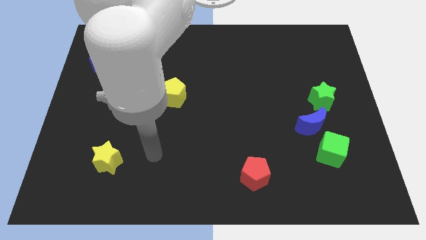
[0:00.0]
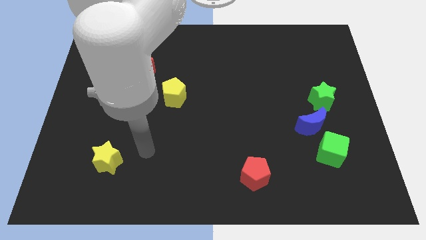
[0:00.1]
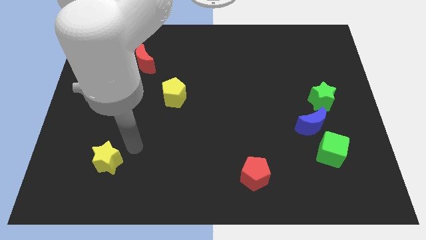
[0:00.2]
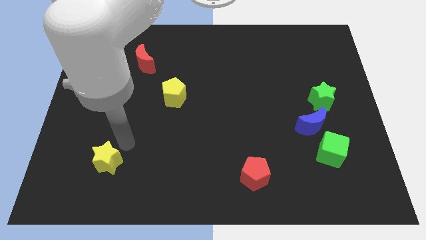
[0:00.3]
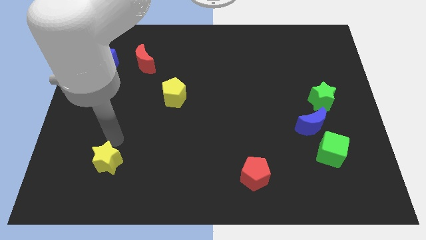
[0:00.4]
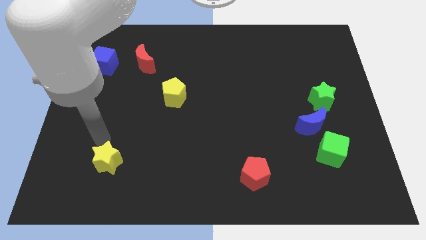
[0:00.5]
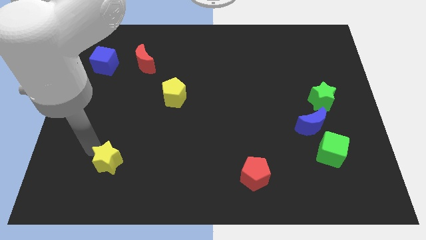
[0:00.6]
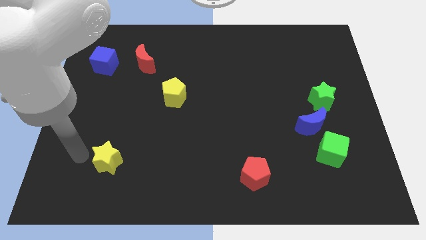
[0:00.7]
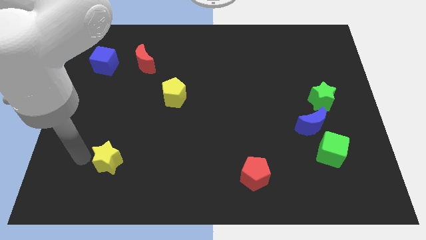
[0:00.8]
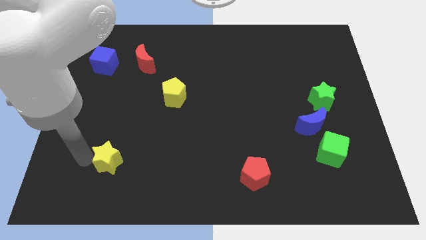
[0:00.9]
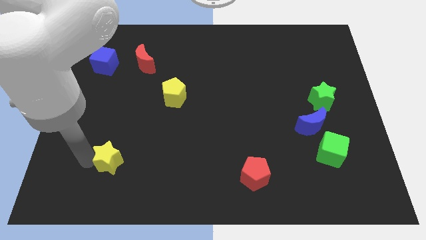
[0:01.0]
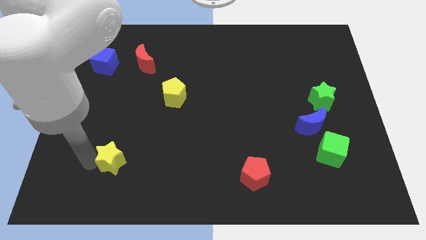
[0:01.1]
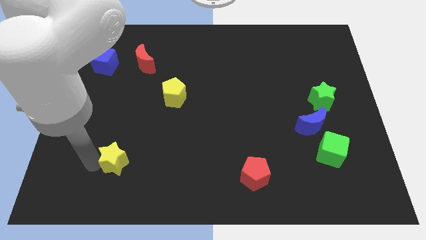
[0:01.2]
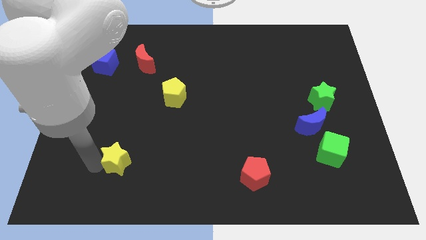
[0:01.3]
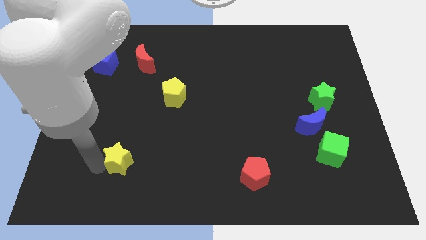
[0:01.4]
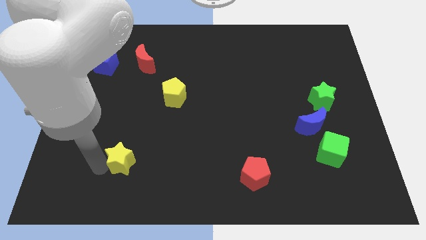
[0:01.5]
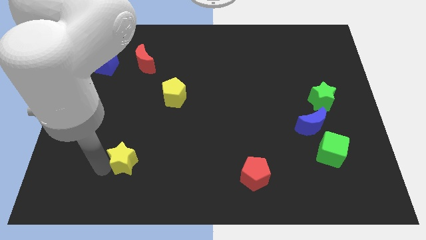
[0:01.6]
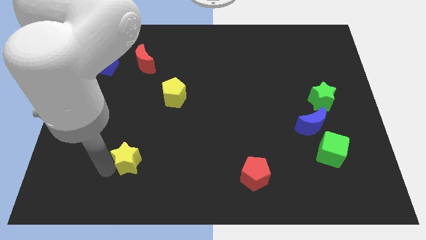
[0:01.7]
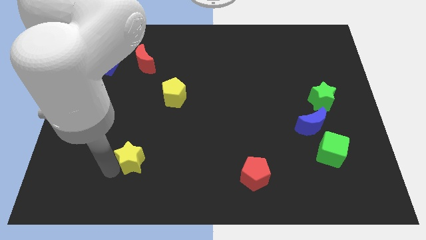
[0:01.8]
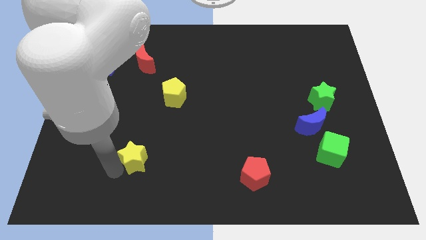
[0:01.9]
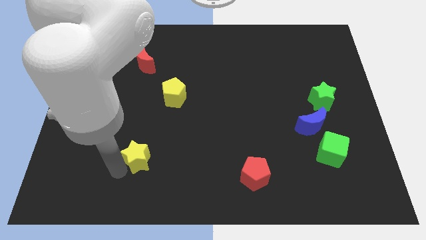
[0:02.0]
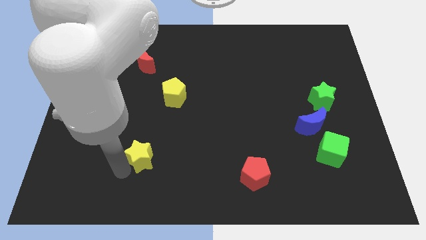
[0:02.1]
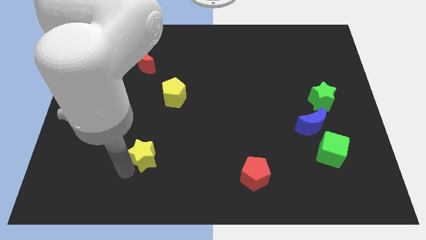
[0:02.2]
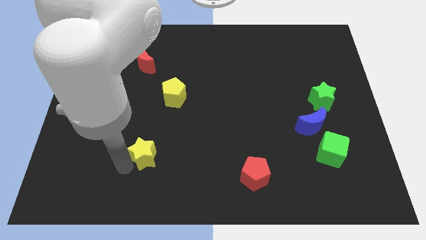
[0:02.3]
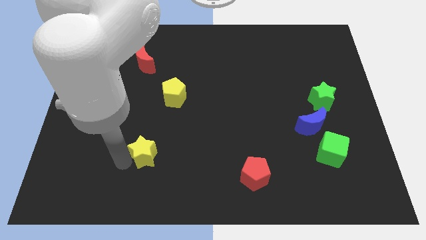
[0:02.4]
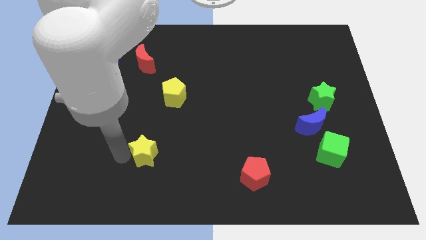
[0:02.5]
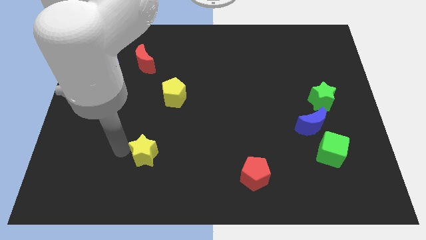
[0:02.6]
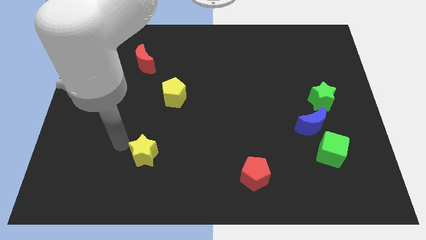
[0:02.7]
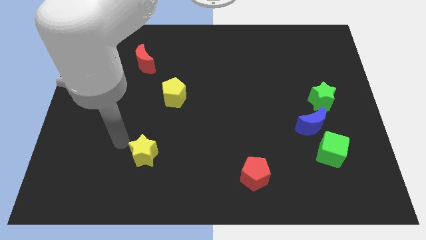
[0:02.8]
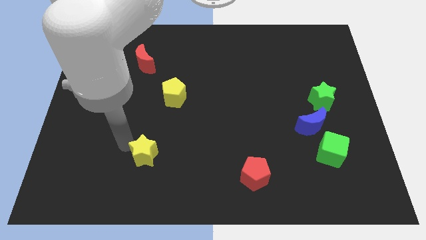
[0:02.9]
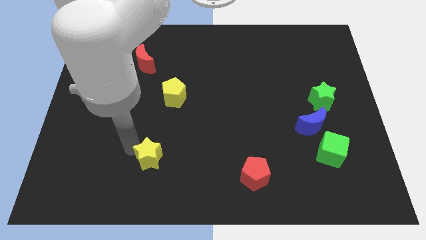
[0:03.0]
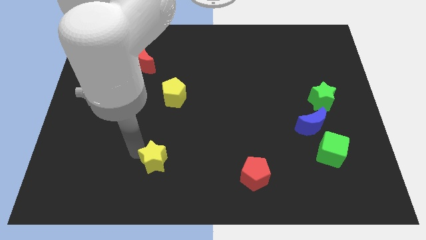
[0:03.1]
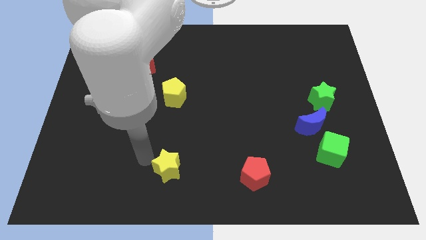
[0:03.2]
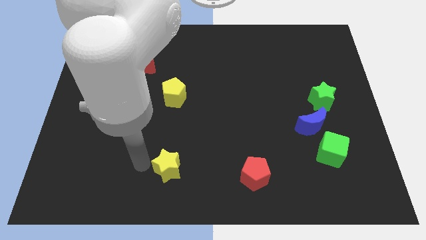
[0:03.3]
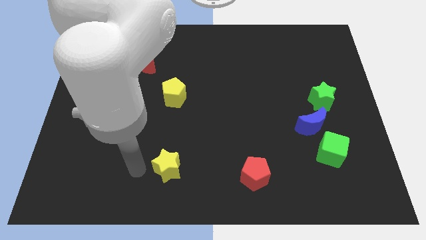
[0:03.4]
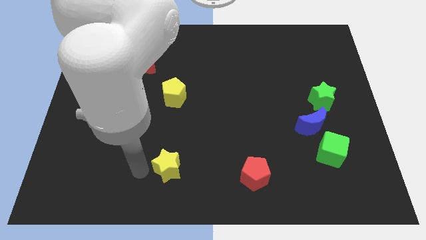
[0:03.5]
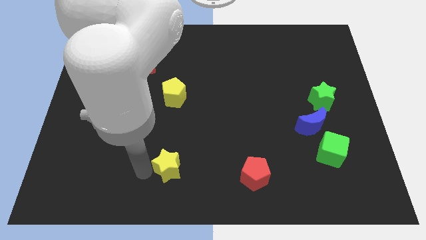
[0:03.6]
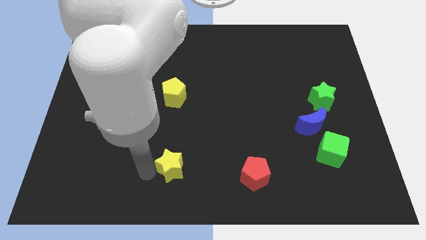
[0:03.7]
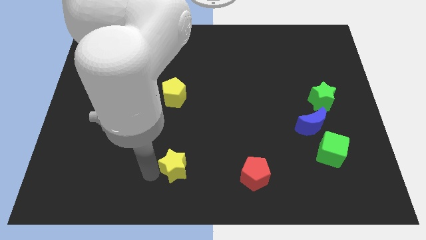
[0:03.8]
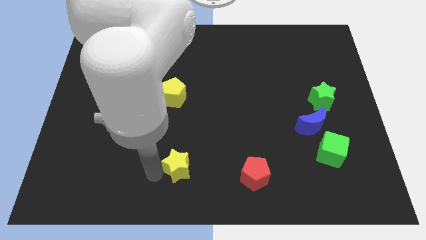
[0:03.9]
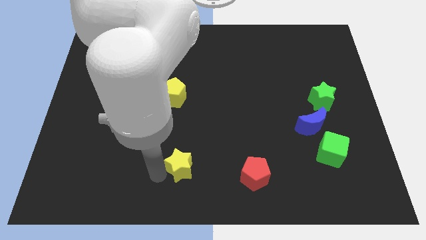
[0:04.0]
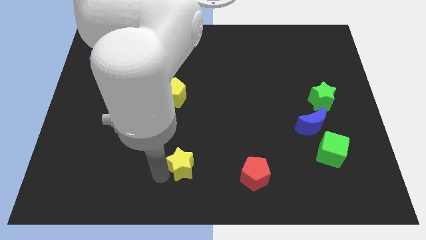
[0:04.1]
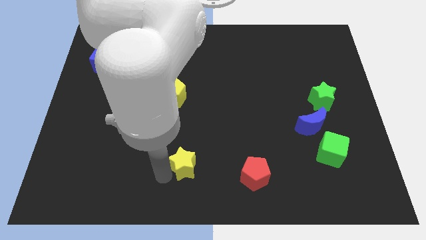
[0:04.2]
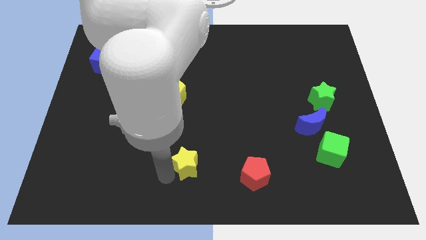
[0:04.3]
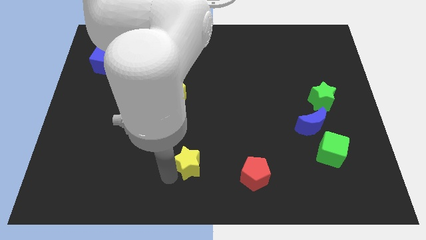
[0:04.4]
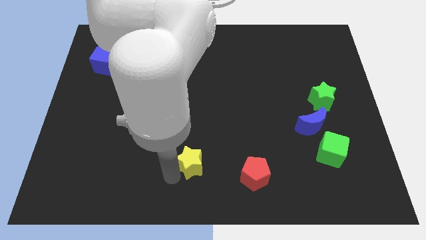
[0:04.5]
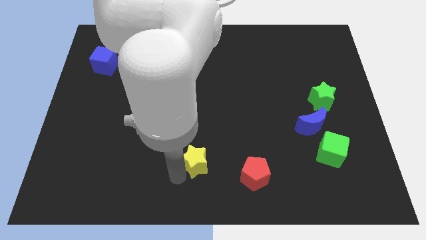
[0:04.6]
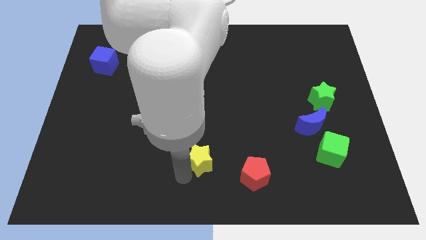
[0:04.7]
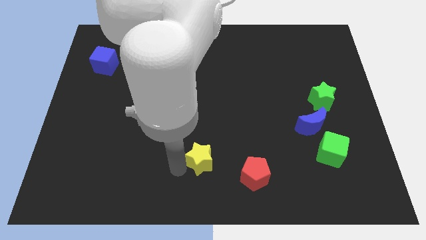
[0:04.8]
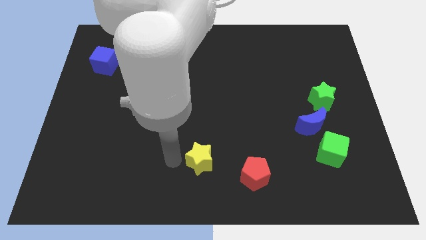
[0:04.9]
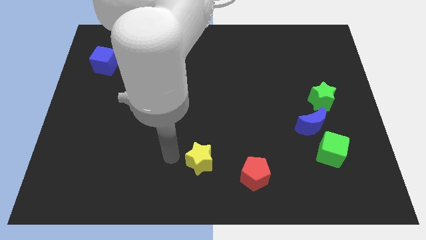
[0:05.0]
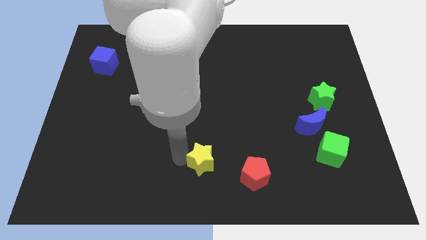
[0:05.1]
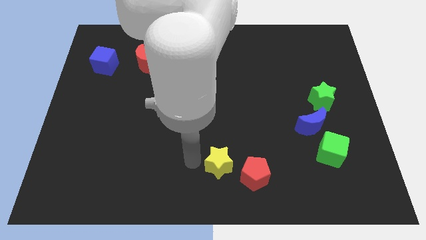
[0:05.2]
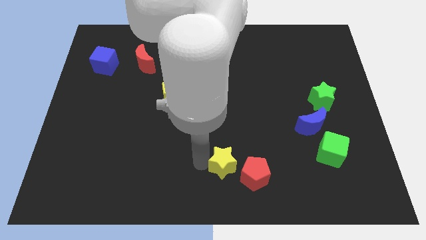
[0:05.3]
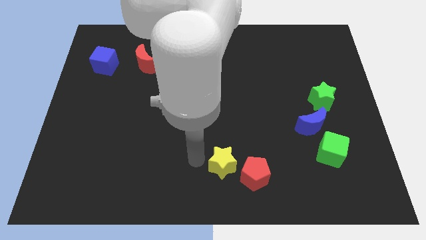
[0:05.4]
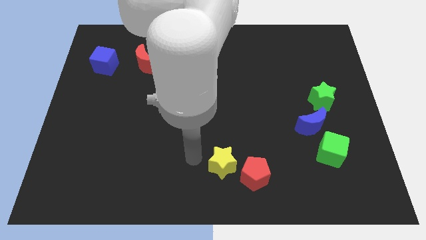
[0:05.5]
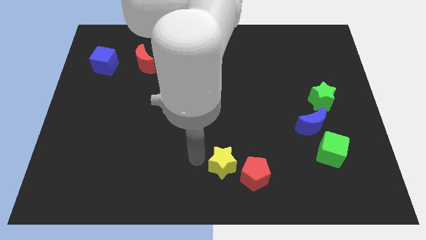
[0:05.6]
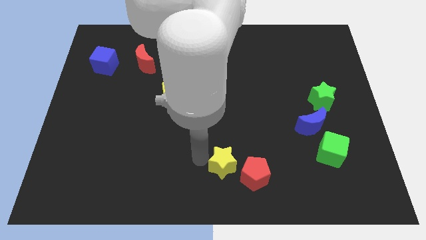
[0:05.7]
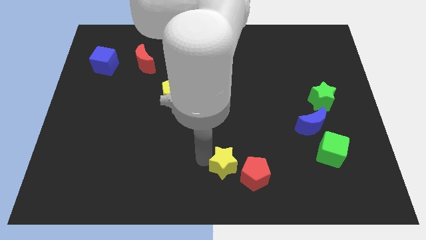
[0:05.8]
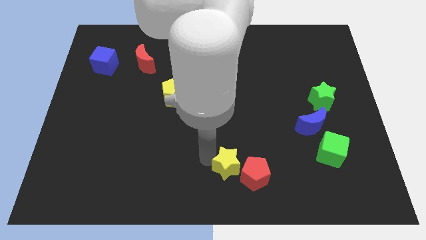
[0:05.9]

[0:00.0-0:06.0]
push the yellow star to the red pentagon

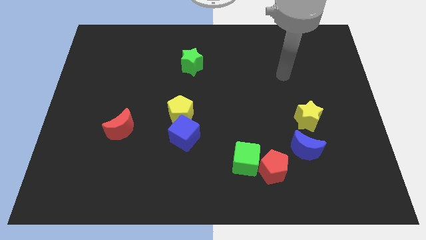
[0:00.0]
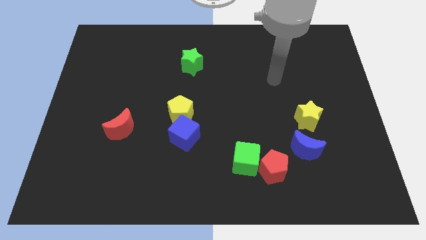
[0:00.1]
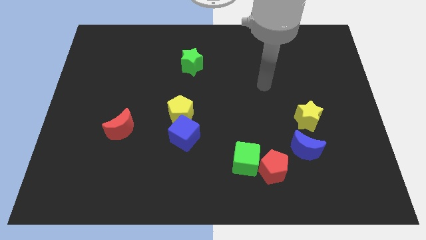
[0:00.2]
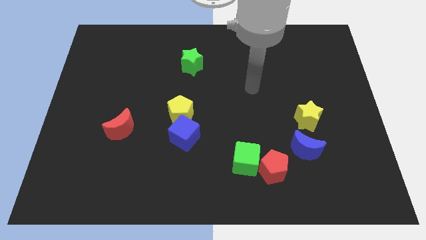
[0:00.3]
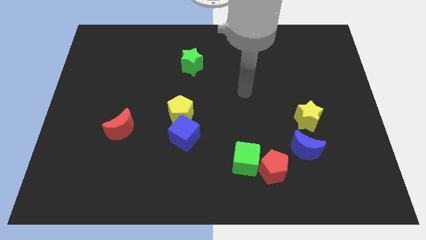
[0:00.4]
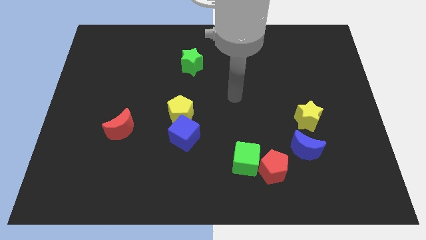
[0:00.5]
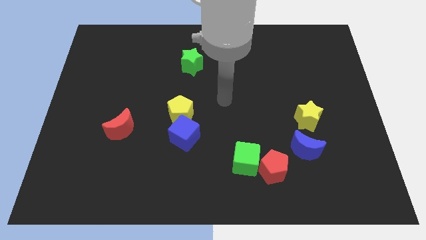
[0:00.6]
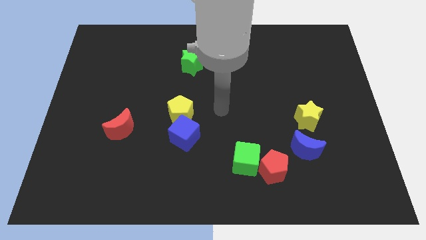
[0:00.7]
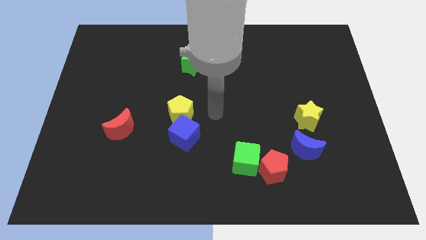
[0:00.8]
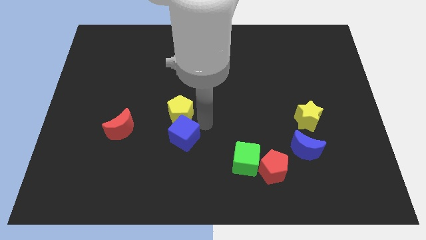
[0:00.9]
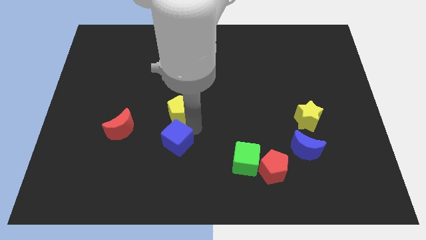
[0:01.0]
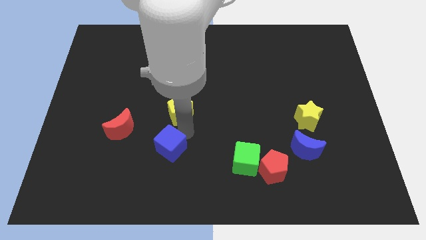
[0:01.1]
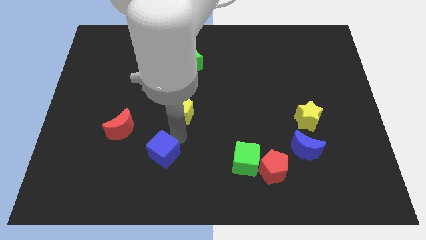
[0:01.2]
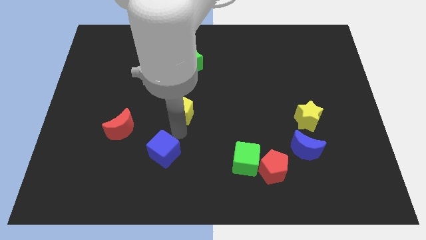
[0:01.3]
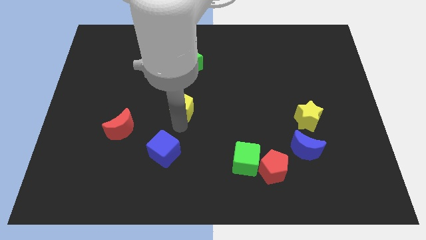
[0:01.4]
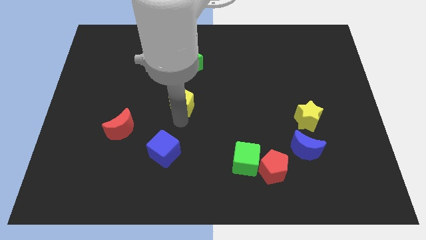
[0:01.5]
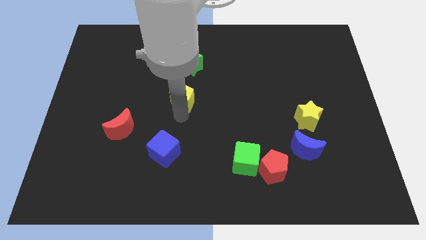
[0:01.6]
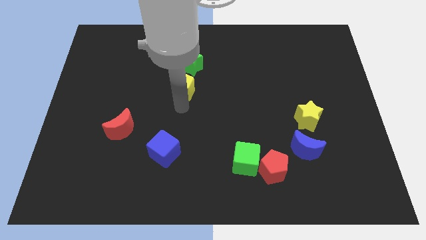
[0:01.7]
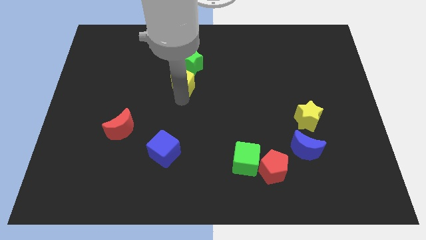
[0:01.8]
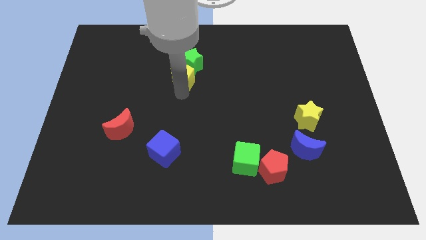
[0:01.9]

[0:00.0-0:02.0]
push the yellow pentagon next to the green star
